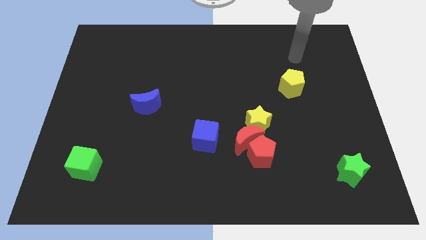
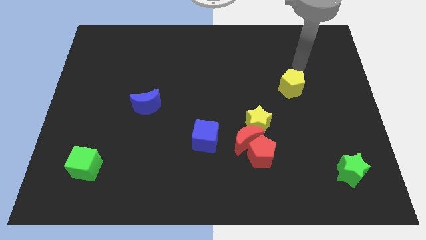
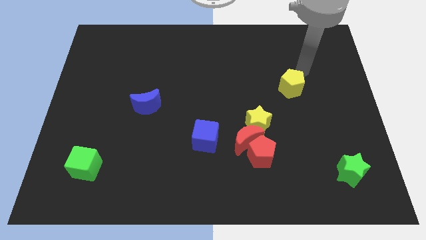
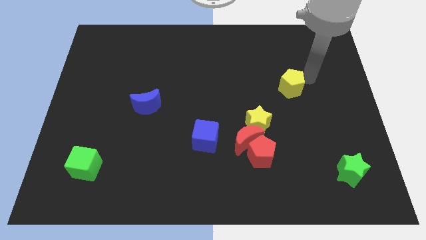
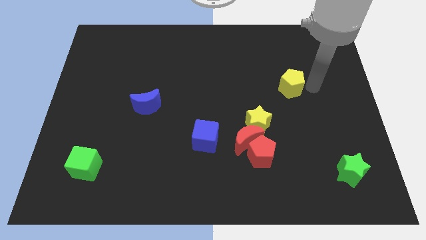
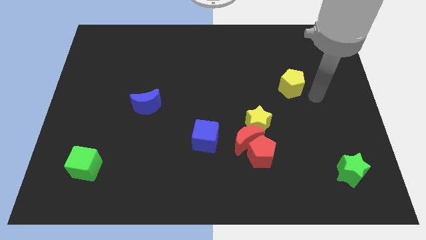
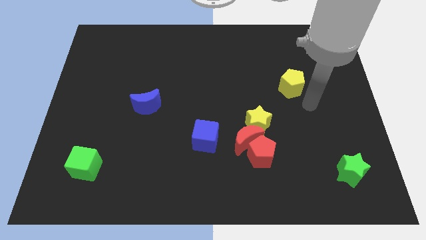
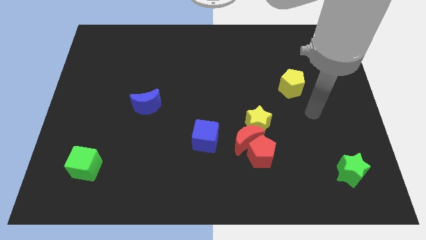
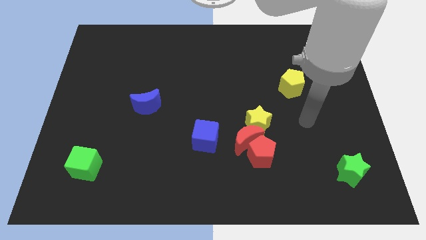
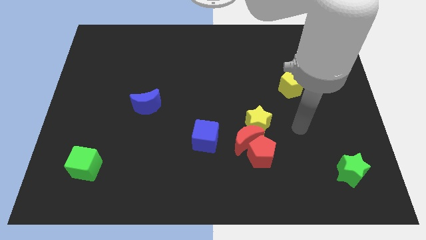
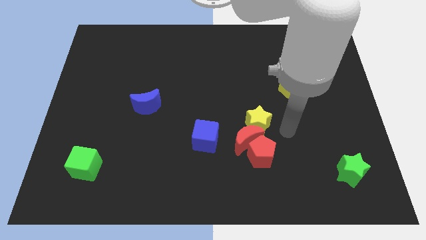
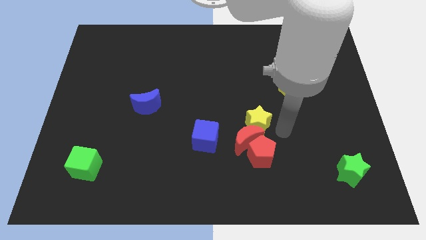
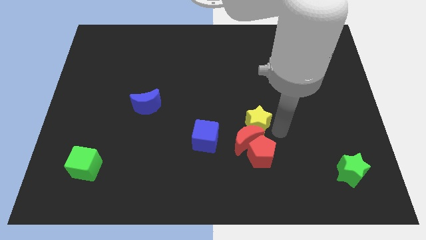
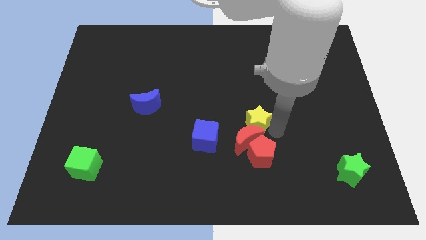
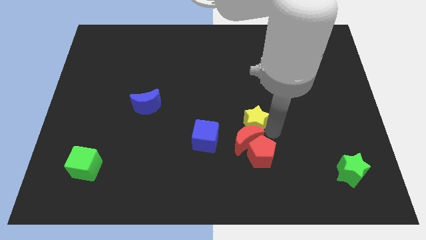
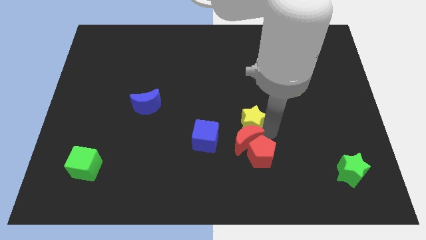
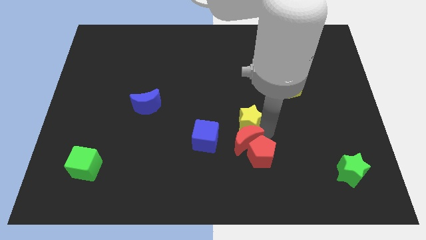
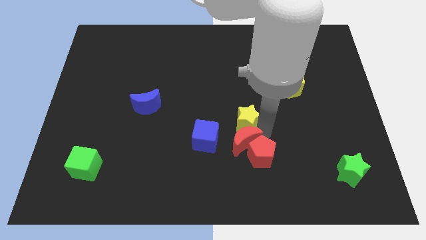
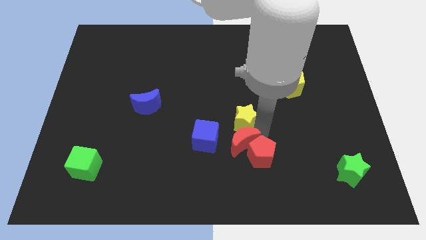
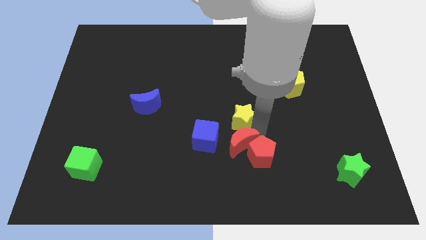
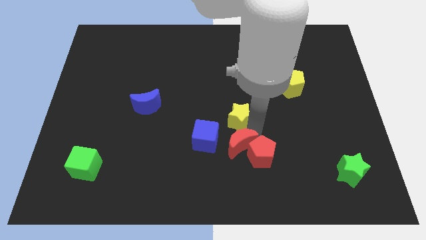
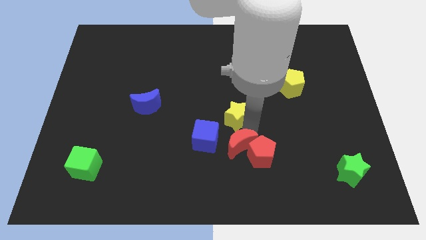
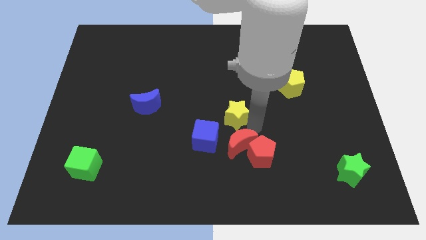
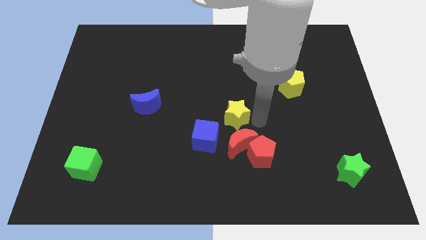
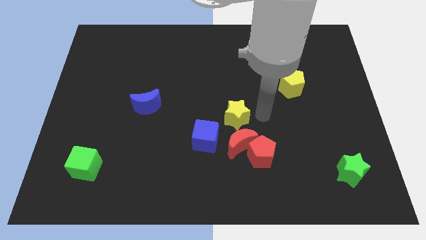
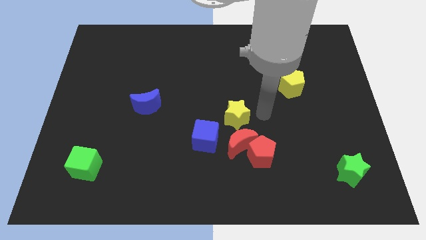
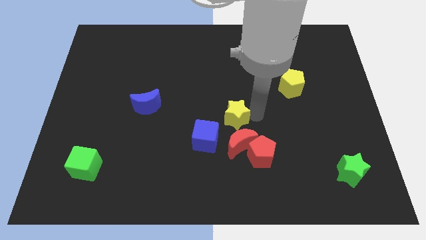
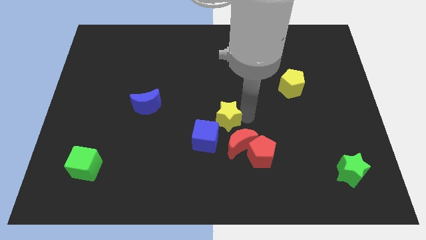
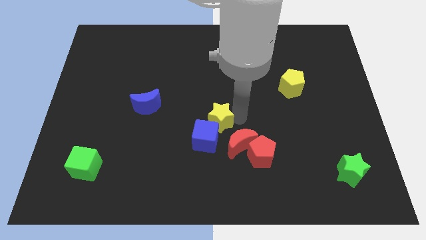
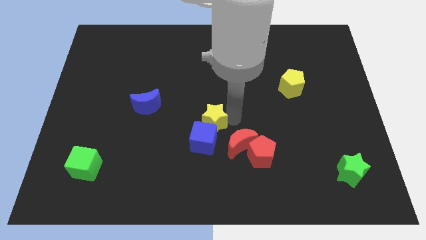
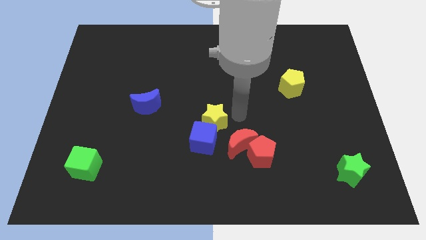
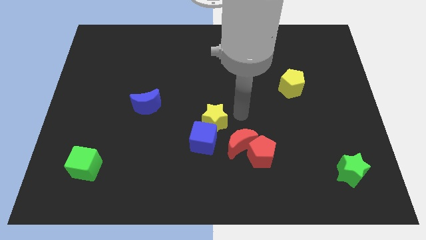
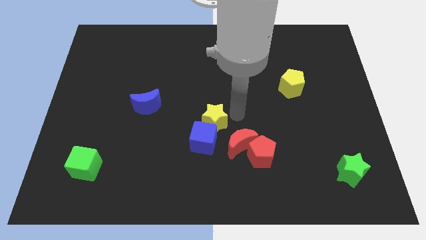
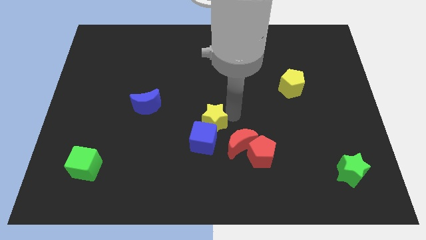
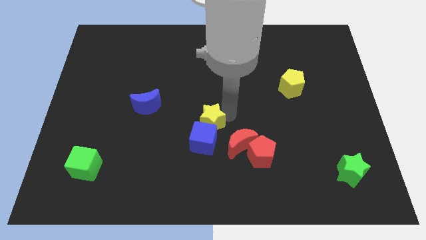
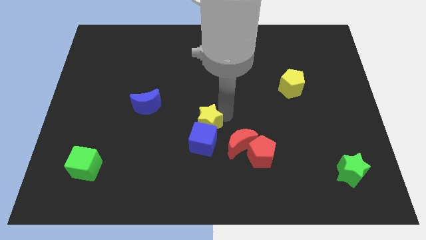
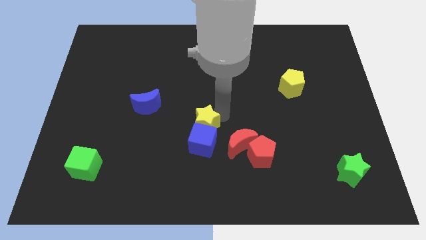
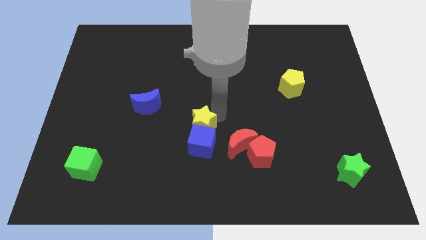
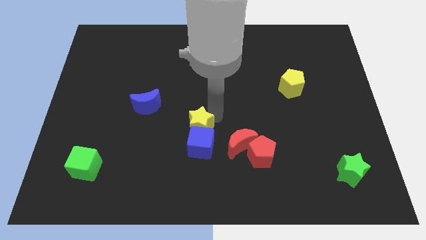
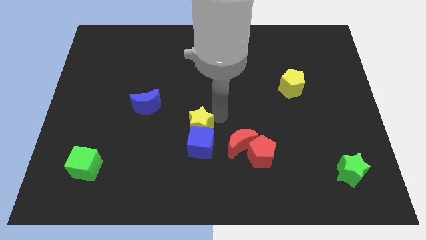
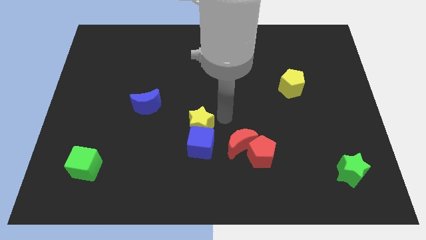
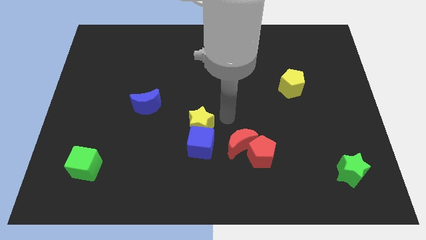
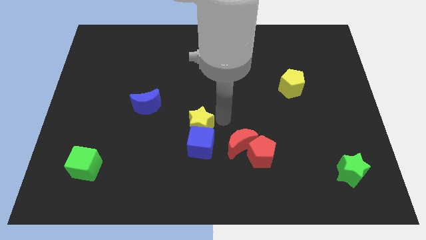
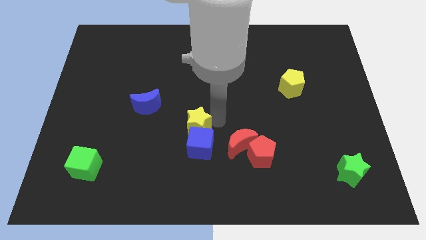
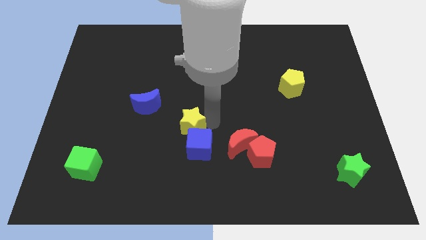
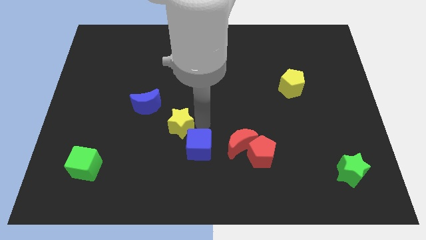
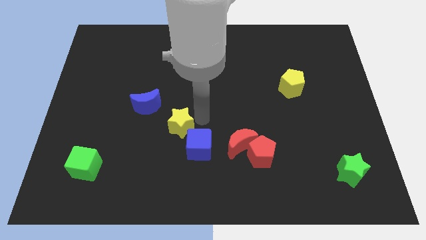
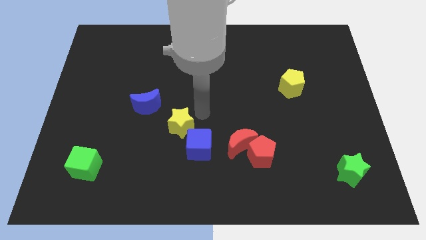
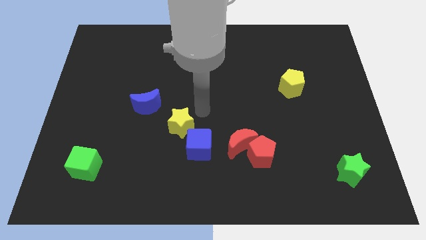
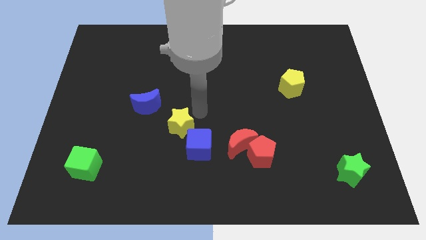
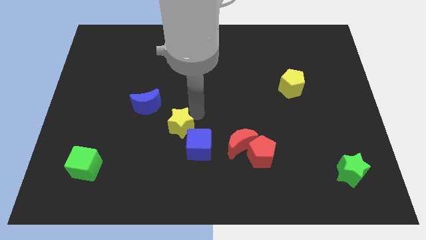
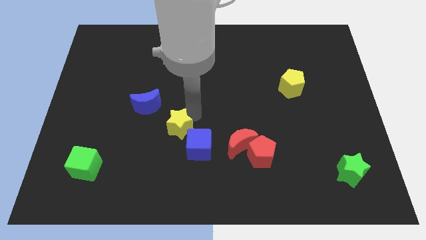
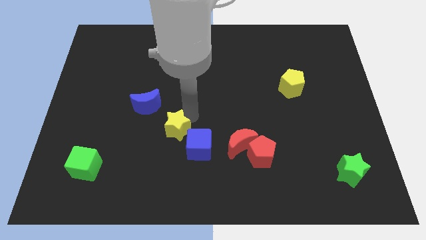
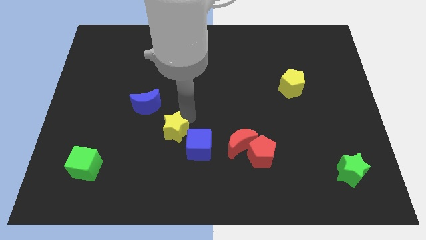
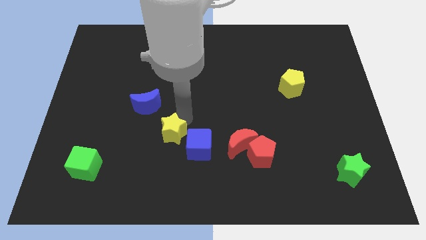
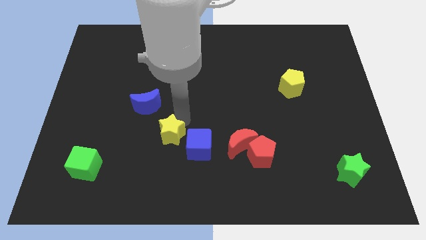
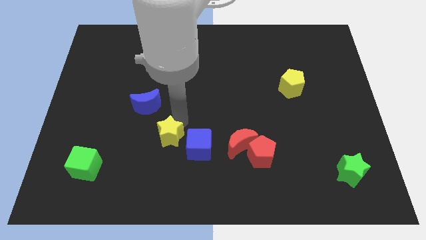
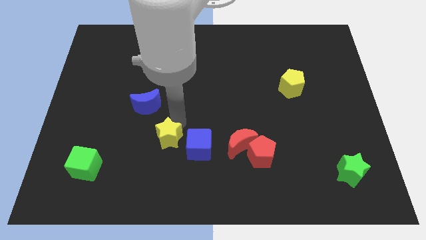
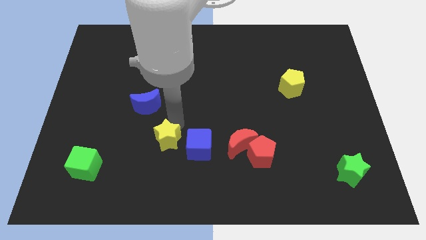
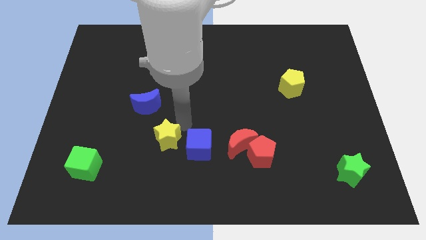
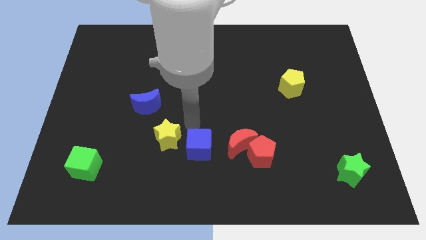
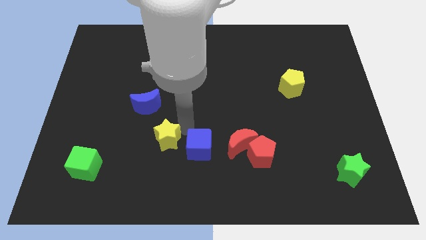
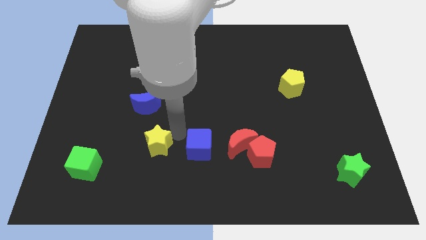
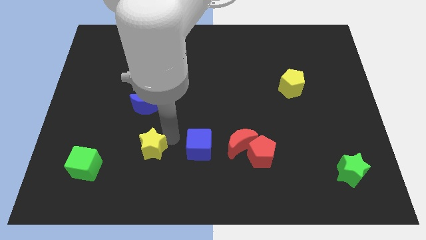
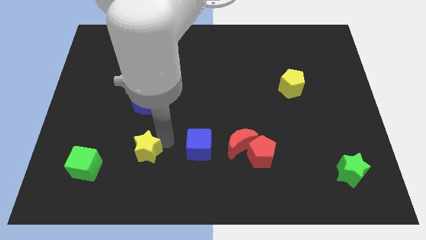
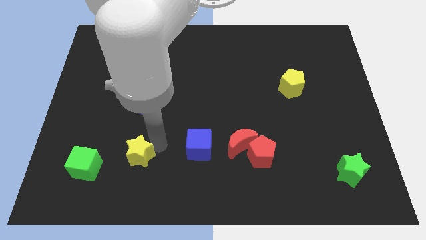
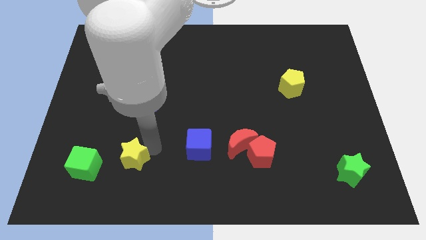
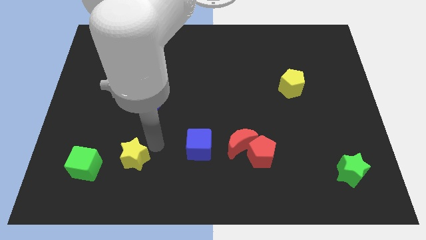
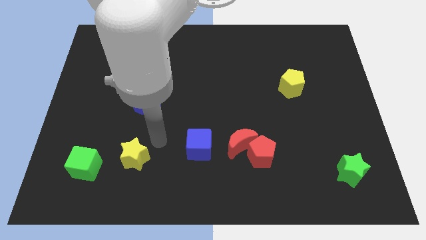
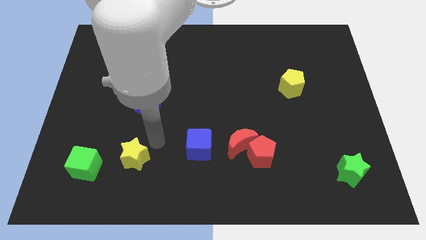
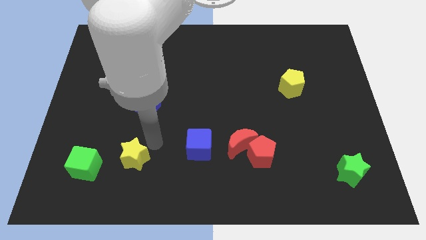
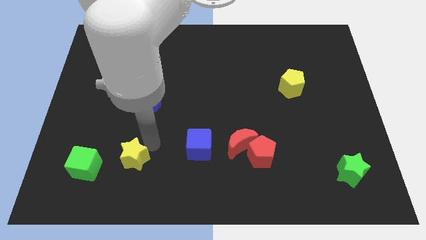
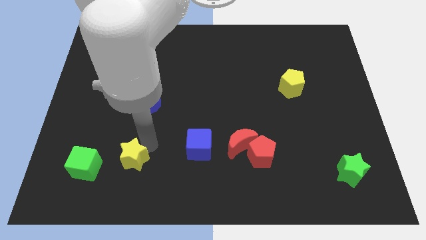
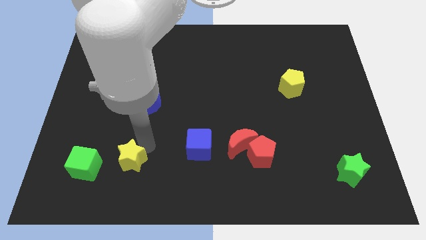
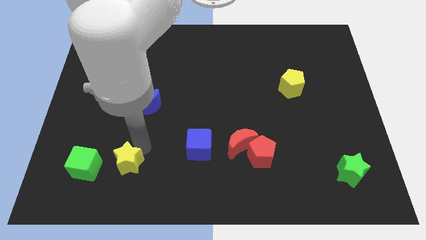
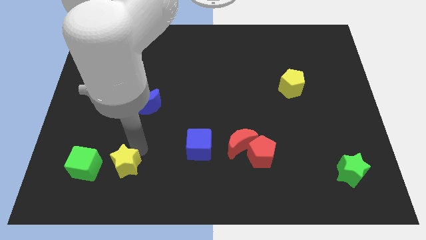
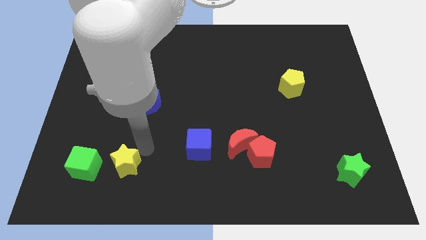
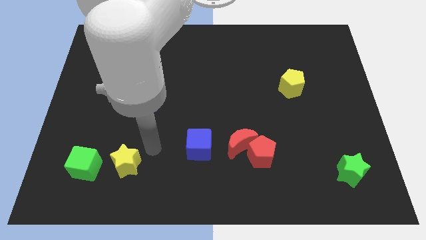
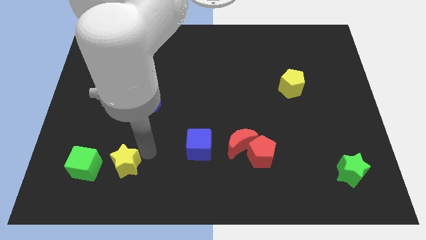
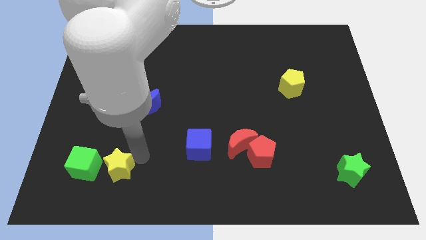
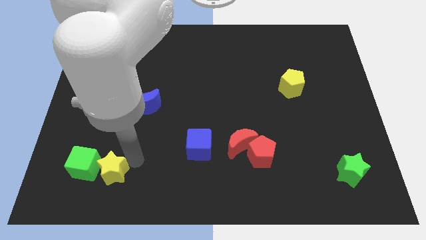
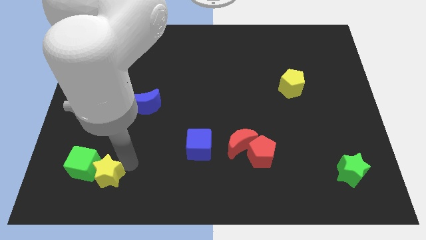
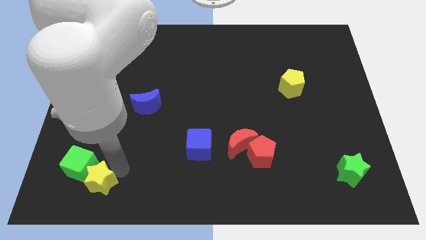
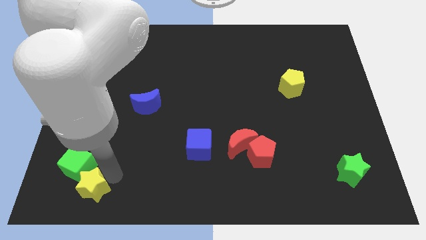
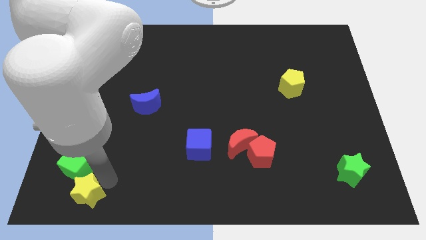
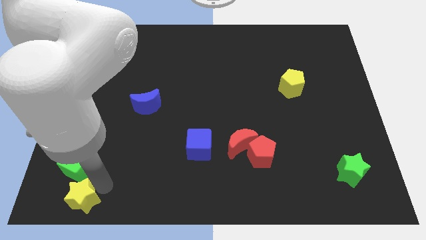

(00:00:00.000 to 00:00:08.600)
put the yellow star to the lower left corner
